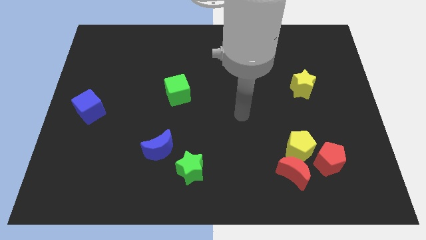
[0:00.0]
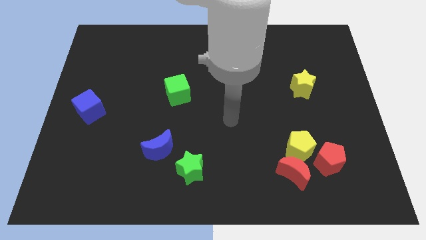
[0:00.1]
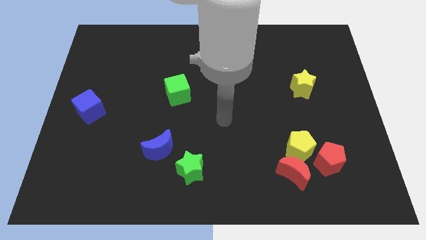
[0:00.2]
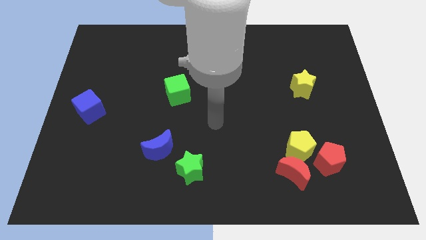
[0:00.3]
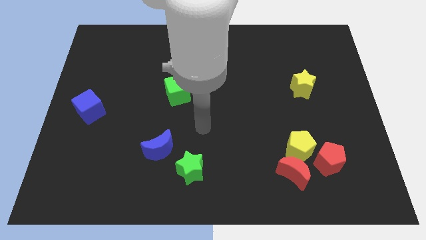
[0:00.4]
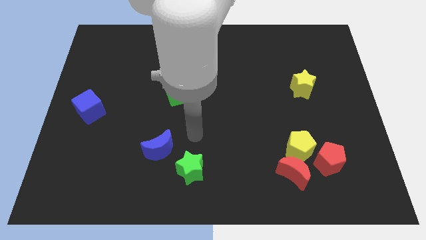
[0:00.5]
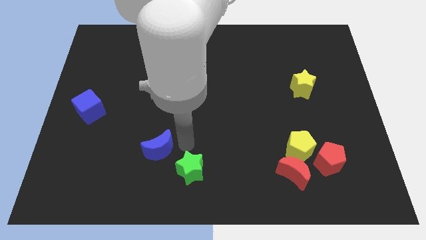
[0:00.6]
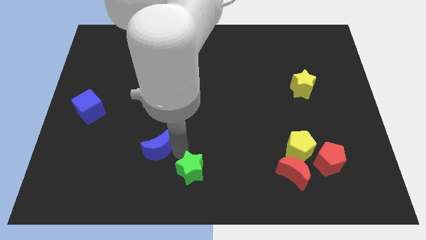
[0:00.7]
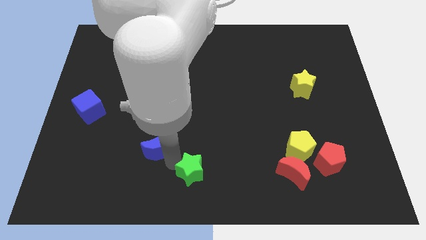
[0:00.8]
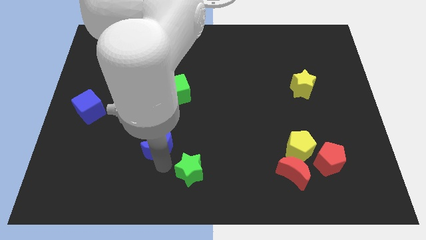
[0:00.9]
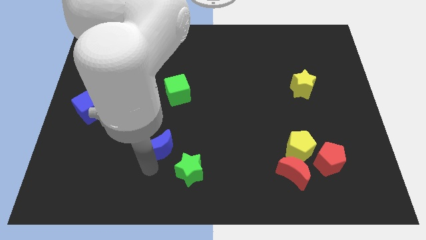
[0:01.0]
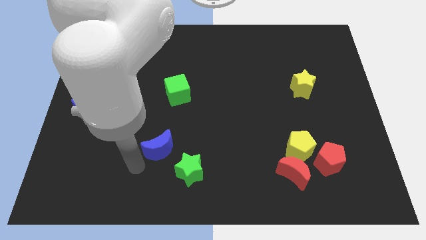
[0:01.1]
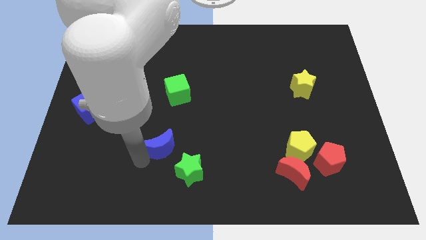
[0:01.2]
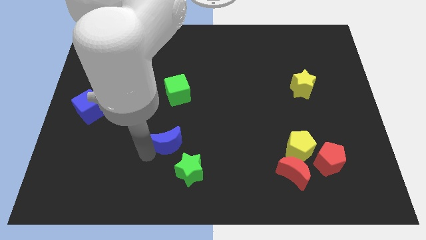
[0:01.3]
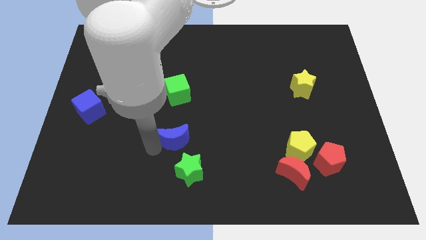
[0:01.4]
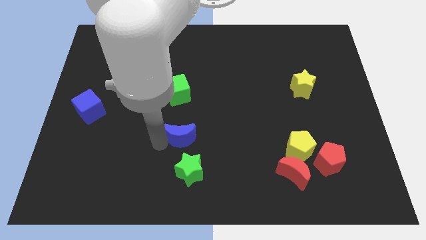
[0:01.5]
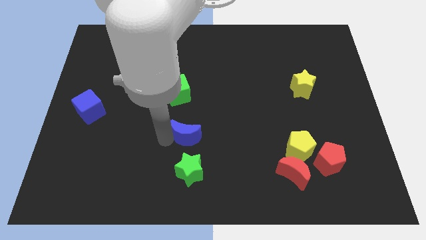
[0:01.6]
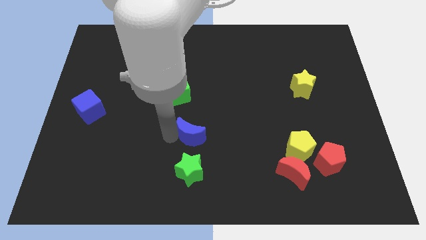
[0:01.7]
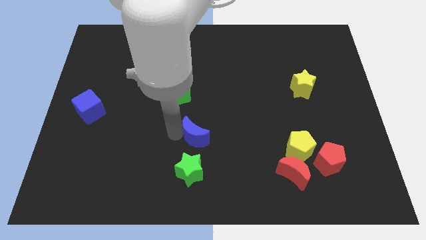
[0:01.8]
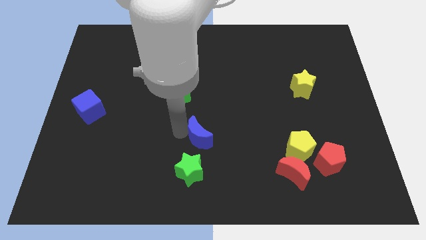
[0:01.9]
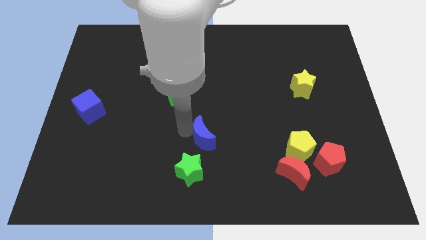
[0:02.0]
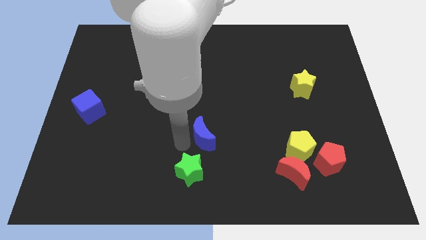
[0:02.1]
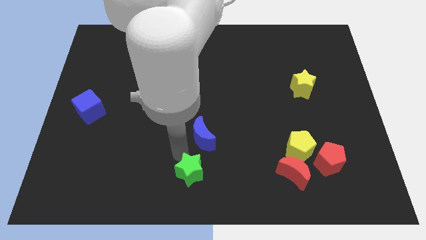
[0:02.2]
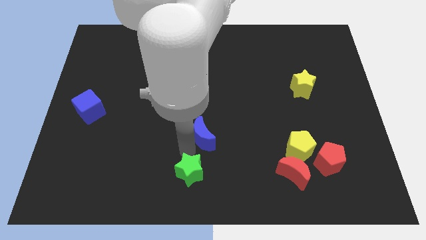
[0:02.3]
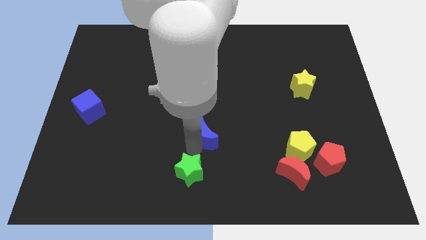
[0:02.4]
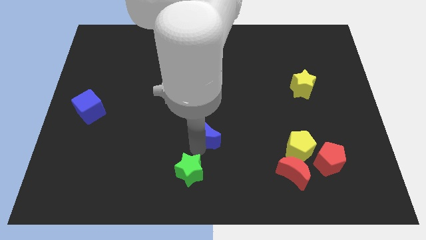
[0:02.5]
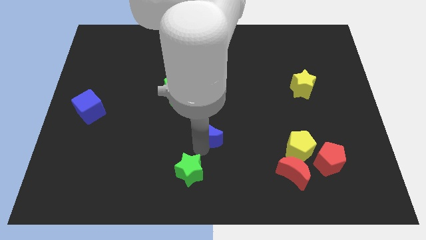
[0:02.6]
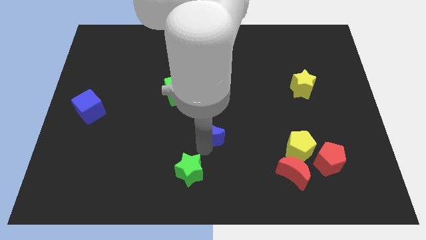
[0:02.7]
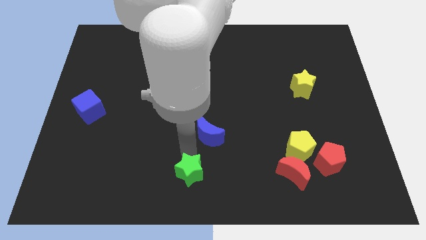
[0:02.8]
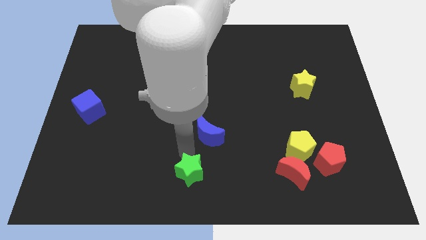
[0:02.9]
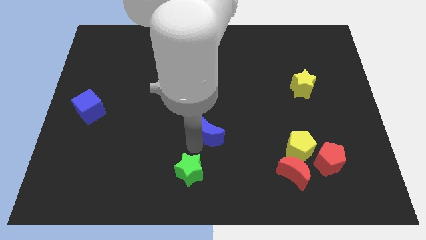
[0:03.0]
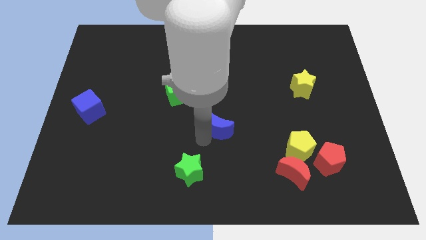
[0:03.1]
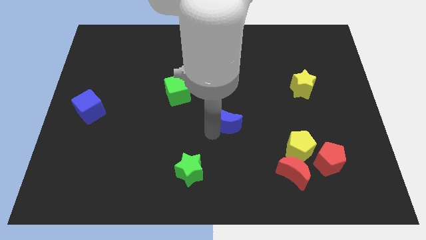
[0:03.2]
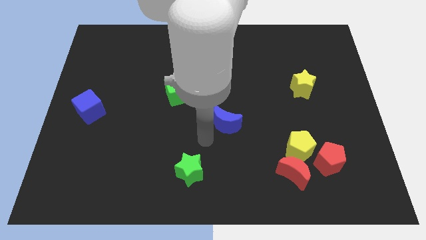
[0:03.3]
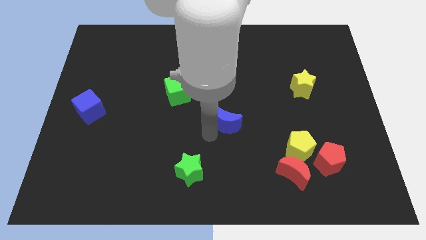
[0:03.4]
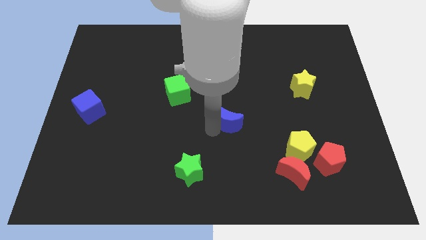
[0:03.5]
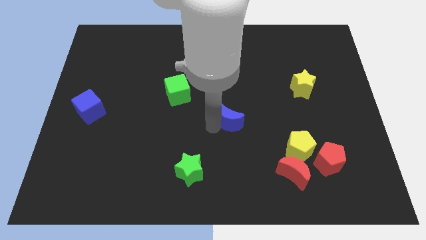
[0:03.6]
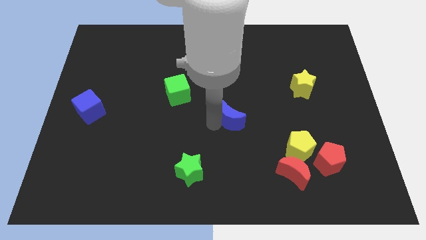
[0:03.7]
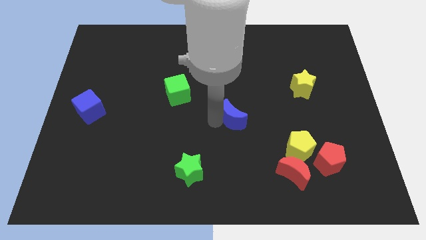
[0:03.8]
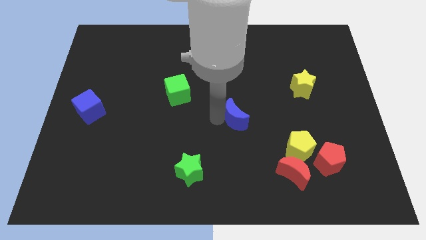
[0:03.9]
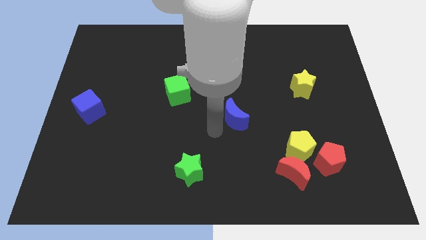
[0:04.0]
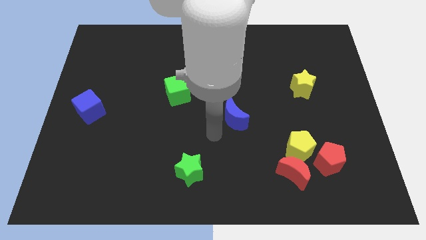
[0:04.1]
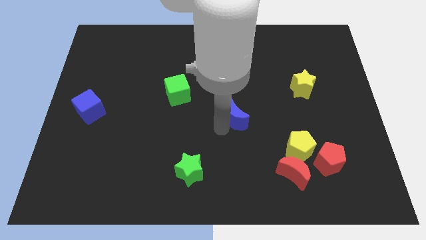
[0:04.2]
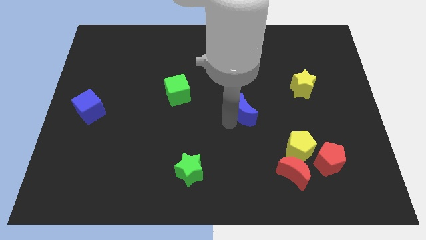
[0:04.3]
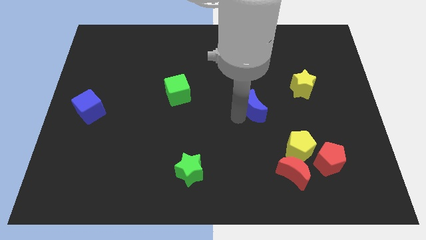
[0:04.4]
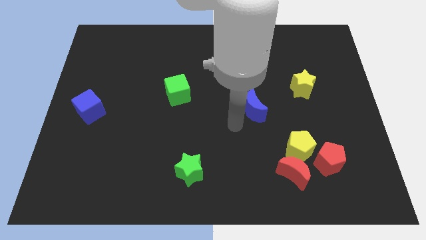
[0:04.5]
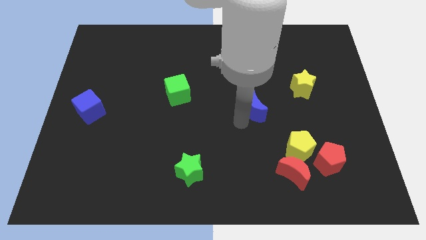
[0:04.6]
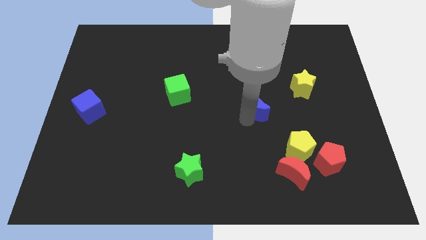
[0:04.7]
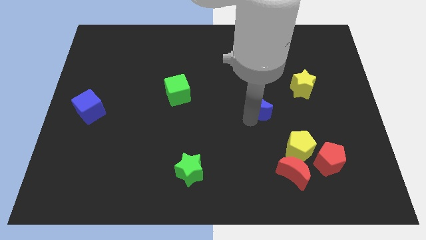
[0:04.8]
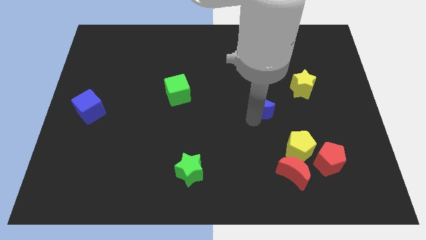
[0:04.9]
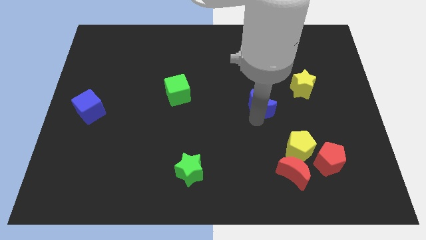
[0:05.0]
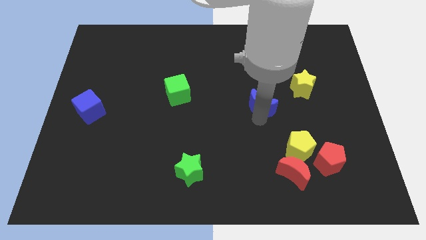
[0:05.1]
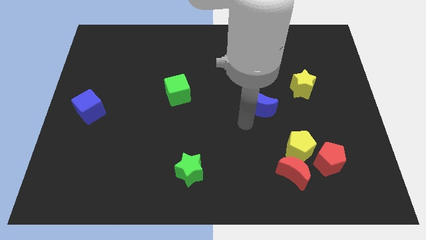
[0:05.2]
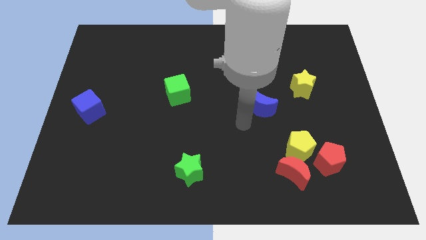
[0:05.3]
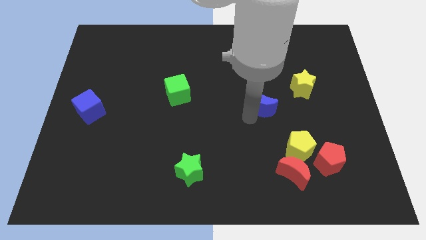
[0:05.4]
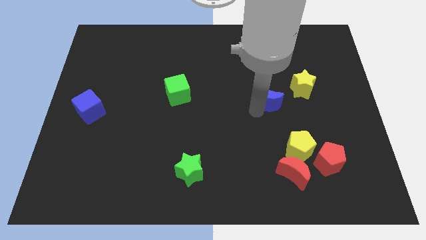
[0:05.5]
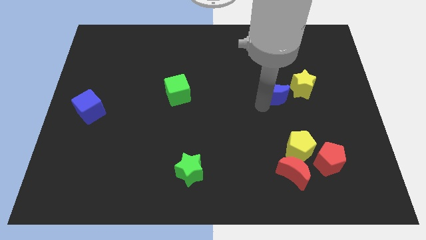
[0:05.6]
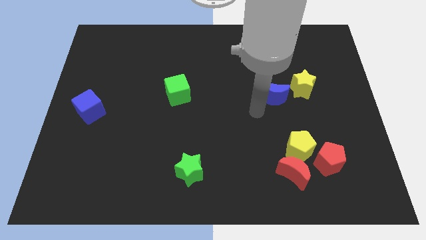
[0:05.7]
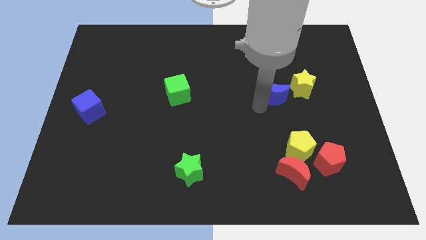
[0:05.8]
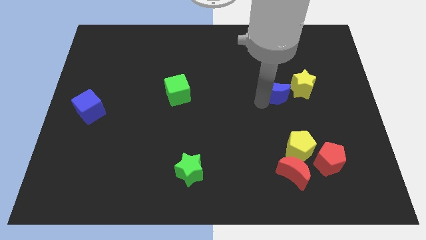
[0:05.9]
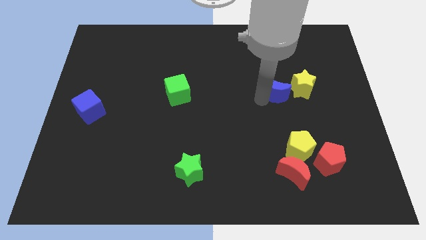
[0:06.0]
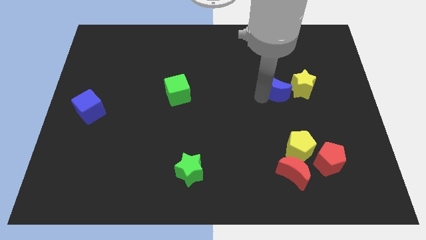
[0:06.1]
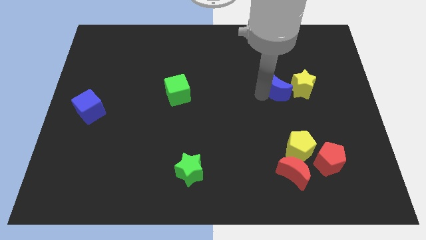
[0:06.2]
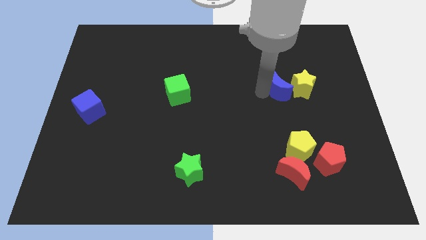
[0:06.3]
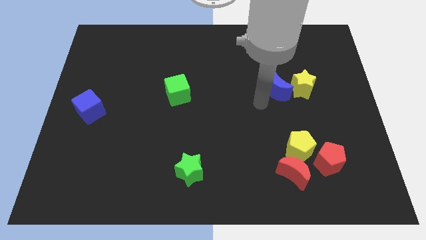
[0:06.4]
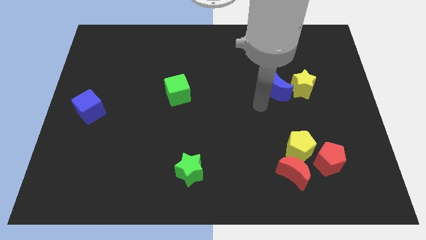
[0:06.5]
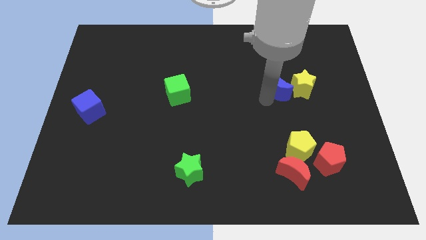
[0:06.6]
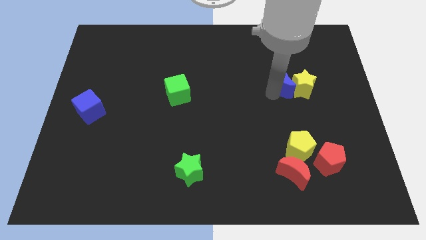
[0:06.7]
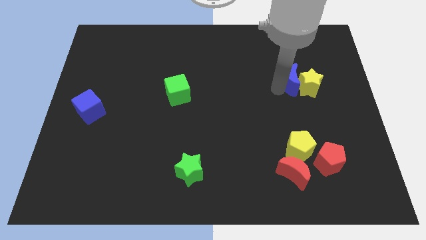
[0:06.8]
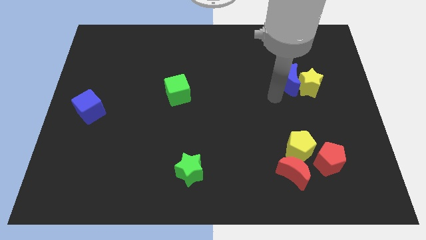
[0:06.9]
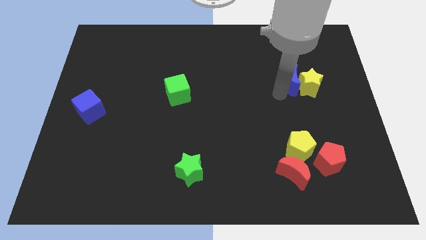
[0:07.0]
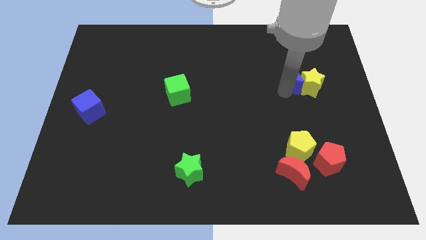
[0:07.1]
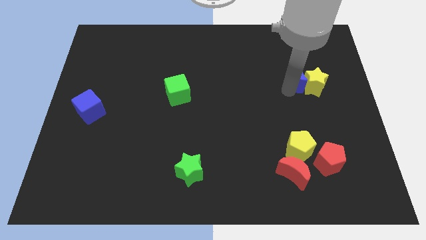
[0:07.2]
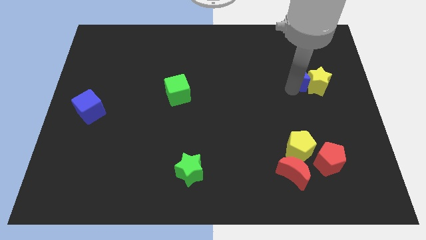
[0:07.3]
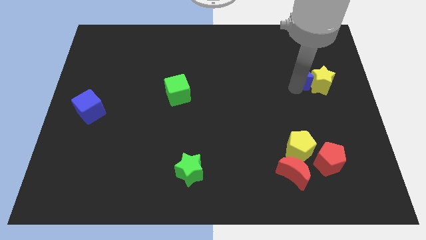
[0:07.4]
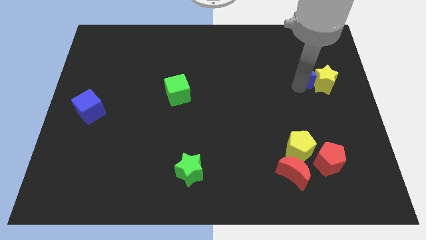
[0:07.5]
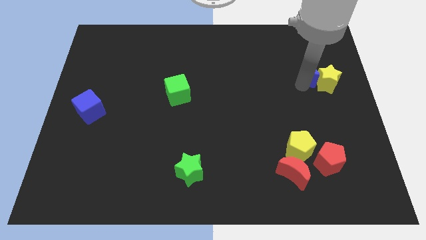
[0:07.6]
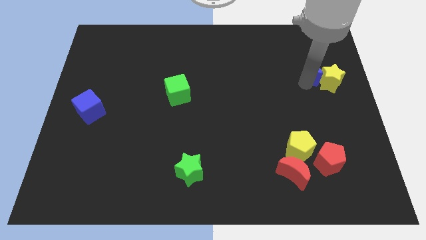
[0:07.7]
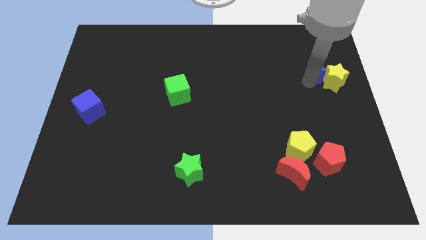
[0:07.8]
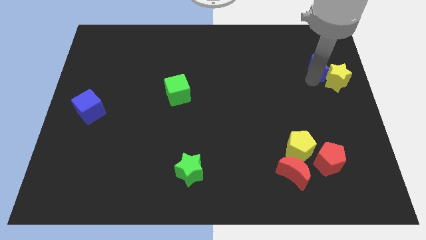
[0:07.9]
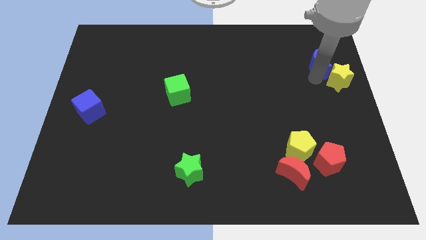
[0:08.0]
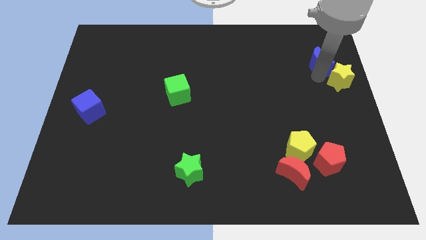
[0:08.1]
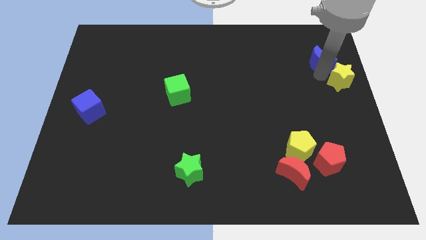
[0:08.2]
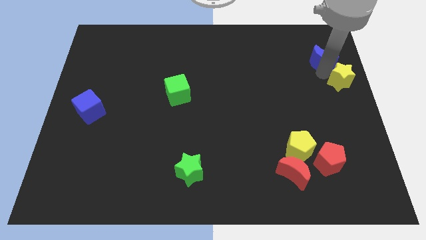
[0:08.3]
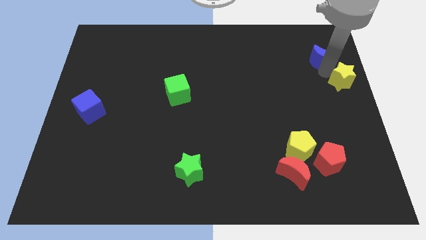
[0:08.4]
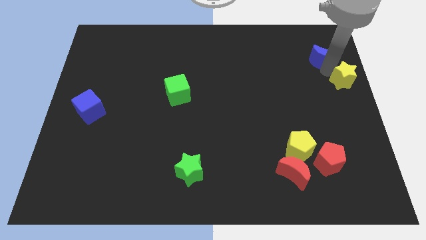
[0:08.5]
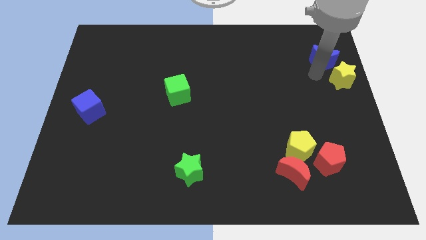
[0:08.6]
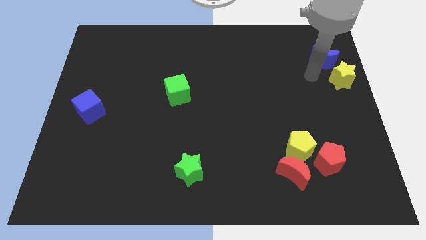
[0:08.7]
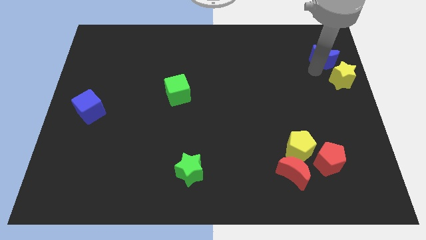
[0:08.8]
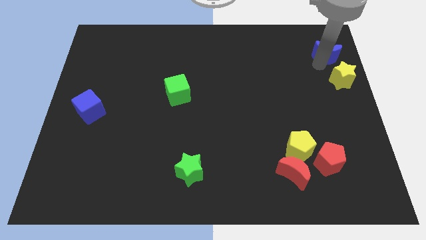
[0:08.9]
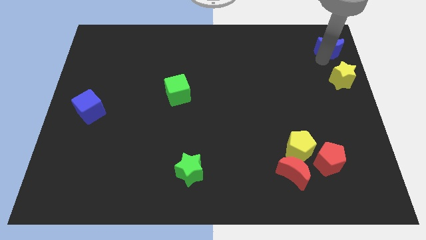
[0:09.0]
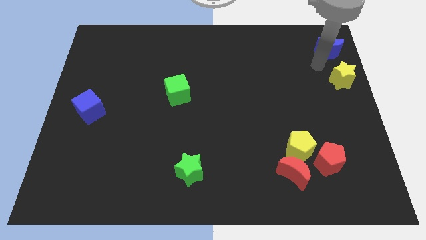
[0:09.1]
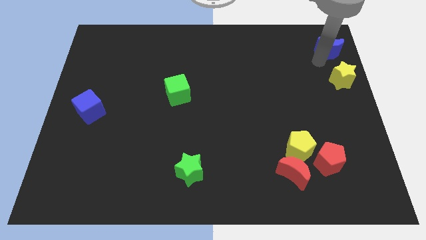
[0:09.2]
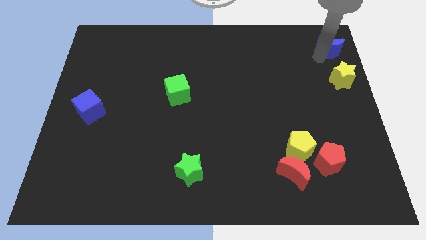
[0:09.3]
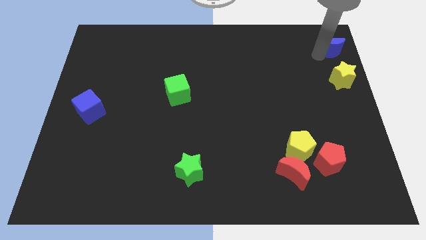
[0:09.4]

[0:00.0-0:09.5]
push the blue moon to the top right
